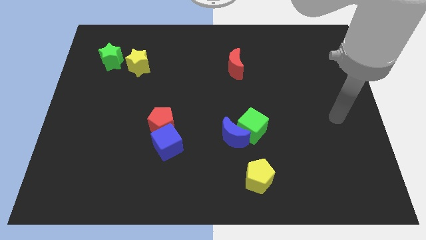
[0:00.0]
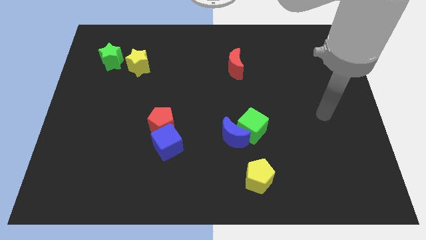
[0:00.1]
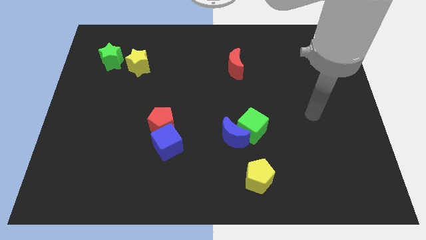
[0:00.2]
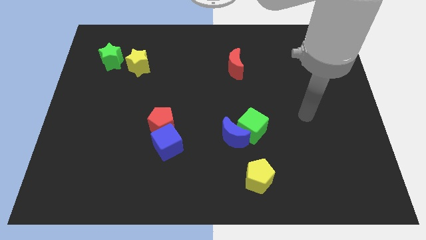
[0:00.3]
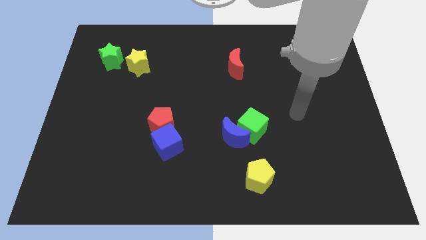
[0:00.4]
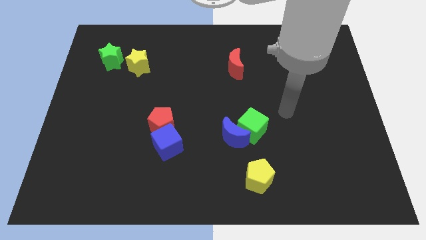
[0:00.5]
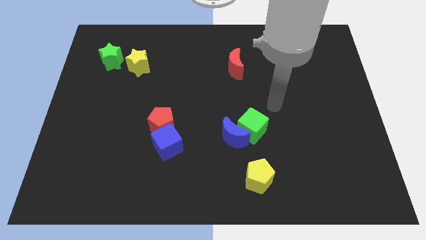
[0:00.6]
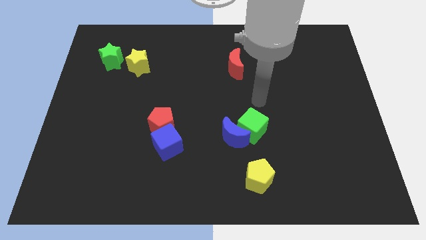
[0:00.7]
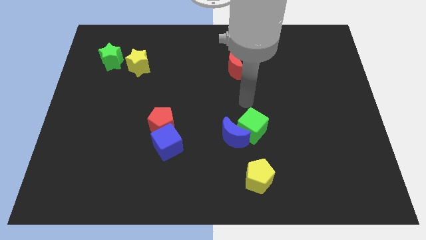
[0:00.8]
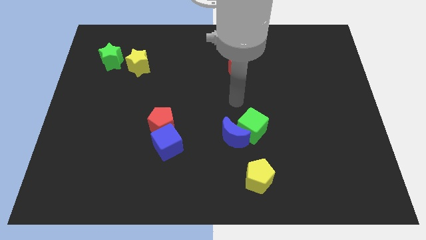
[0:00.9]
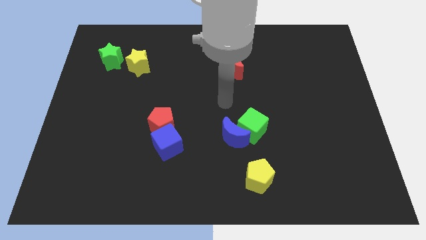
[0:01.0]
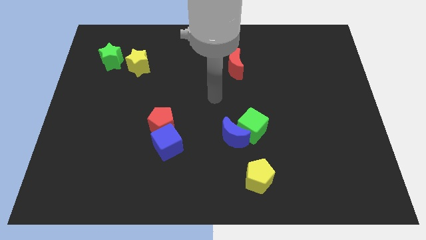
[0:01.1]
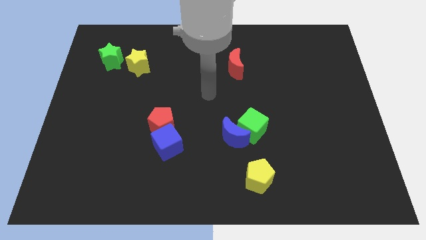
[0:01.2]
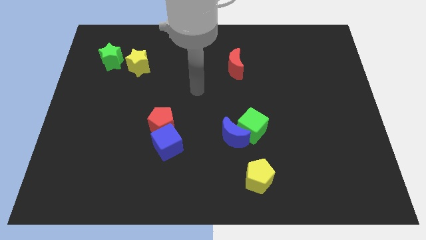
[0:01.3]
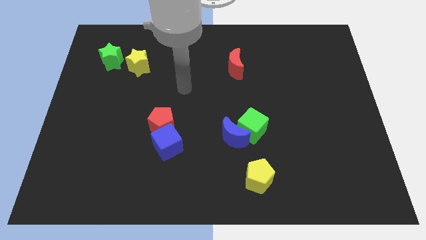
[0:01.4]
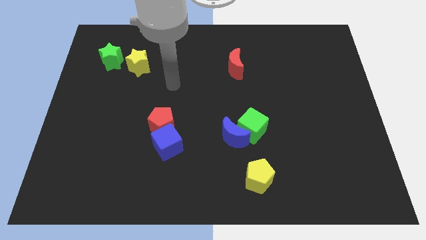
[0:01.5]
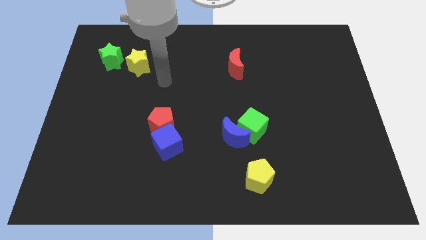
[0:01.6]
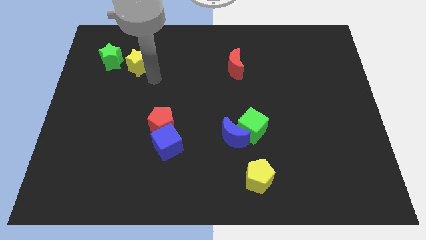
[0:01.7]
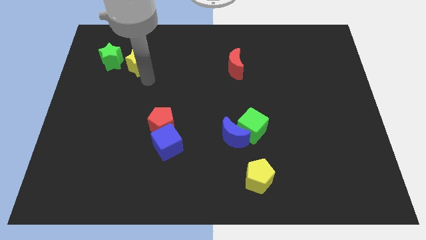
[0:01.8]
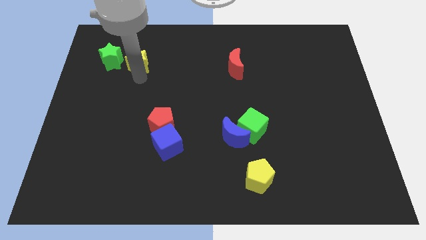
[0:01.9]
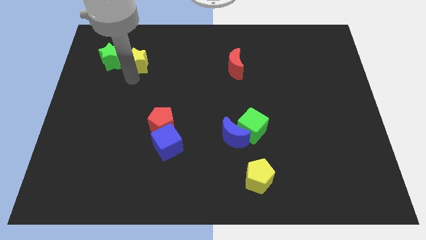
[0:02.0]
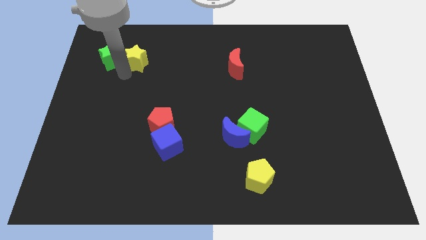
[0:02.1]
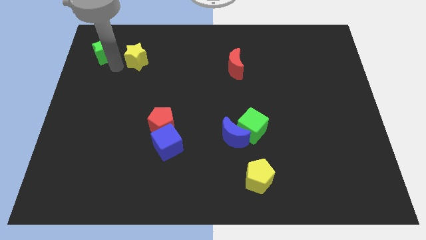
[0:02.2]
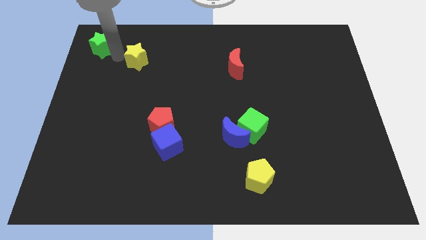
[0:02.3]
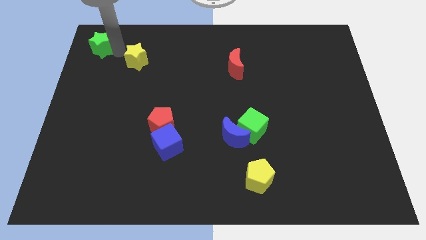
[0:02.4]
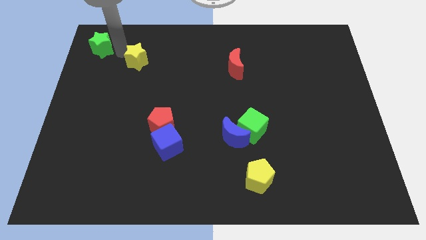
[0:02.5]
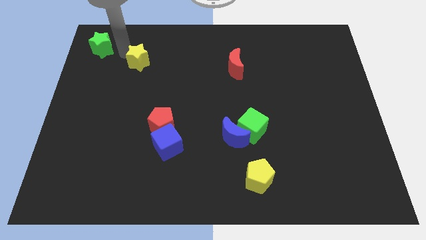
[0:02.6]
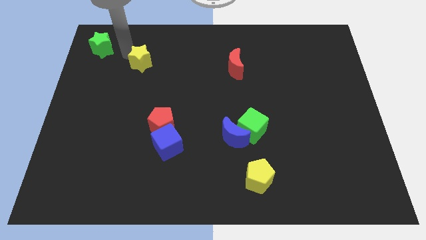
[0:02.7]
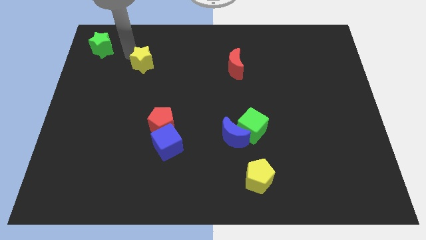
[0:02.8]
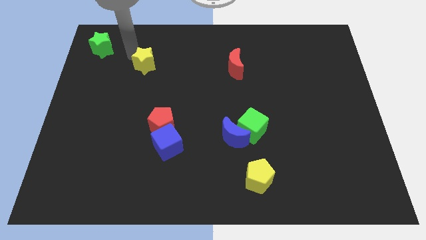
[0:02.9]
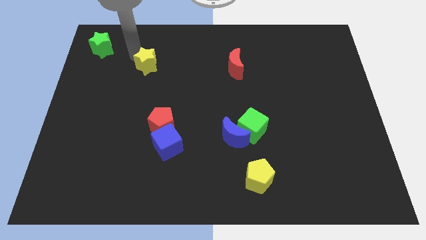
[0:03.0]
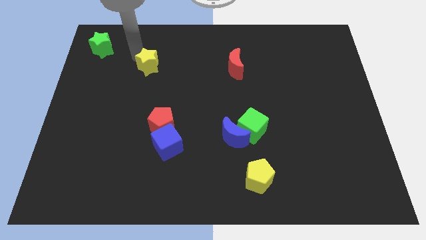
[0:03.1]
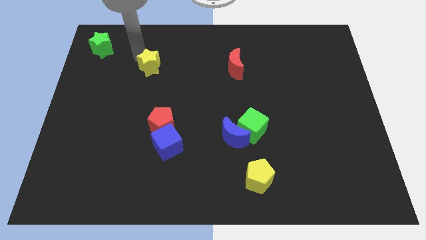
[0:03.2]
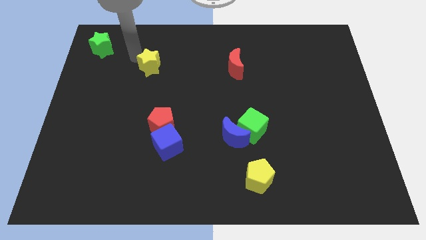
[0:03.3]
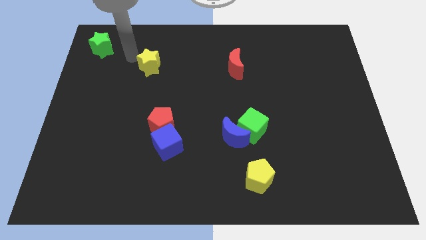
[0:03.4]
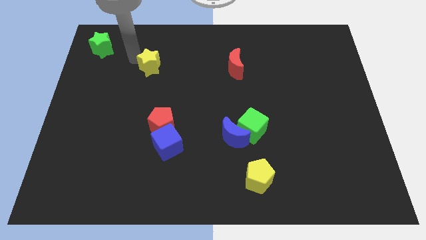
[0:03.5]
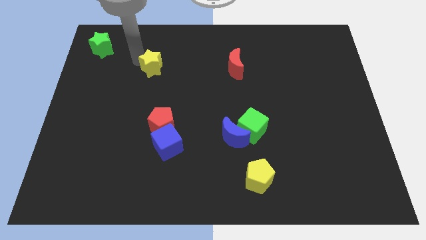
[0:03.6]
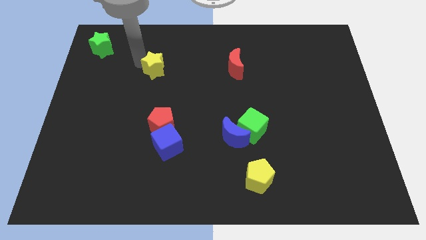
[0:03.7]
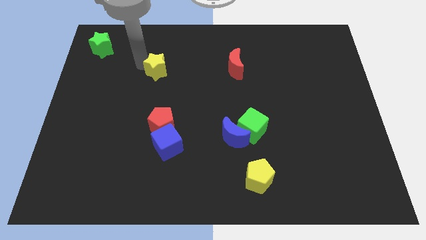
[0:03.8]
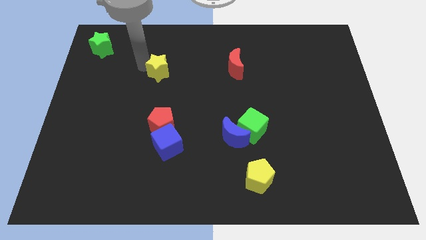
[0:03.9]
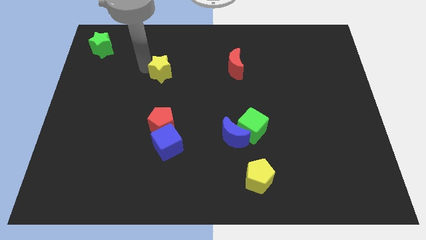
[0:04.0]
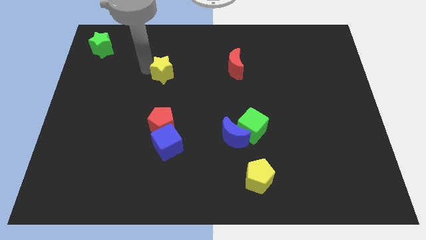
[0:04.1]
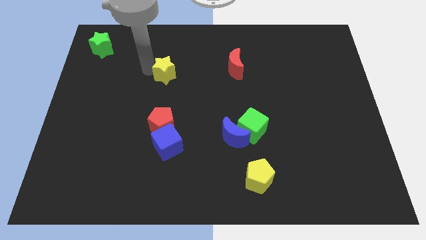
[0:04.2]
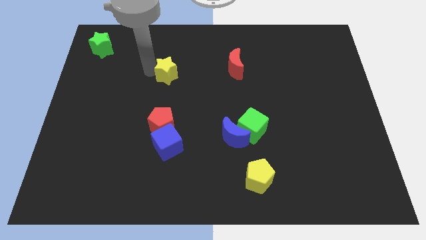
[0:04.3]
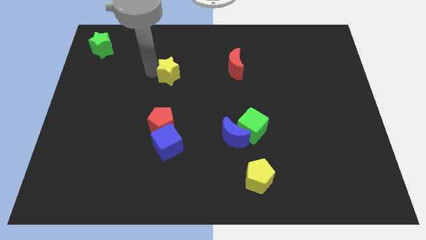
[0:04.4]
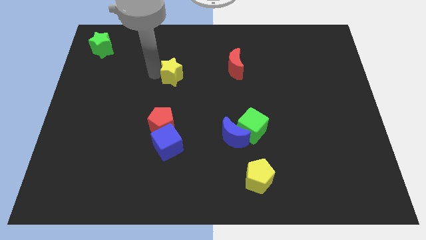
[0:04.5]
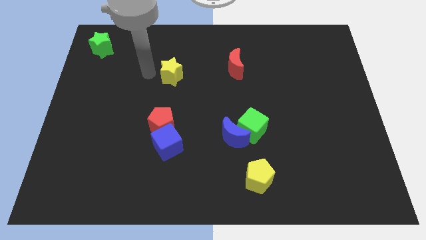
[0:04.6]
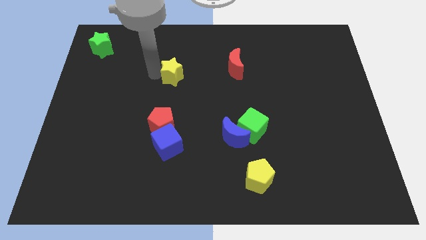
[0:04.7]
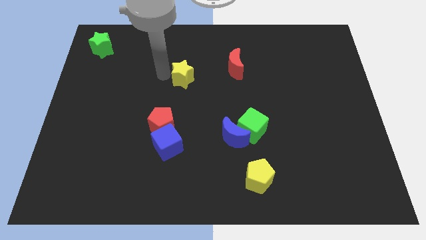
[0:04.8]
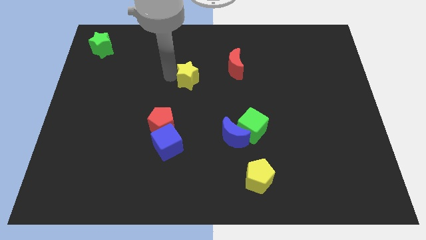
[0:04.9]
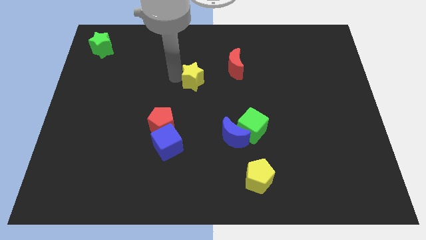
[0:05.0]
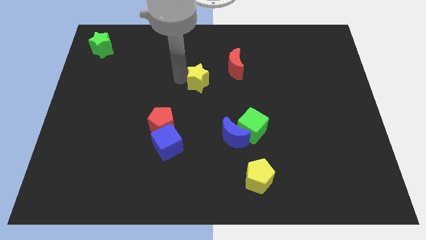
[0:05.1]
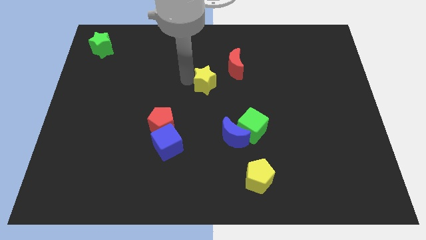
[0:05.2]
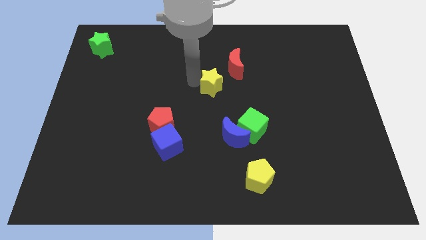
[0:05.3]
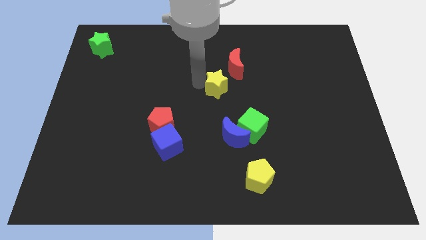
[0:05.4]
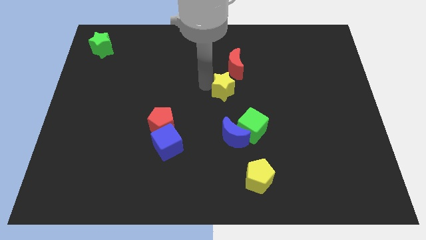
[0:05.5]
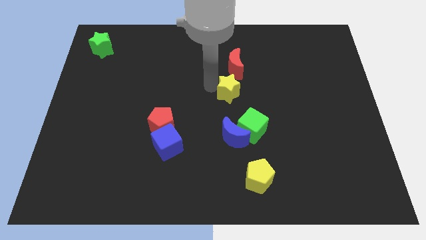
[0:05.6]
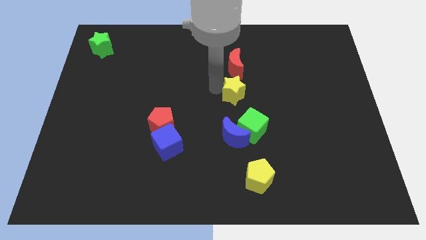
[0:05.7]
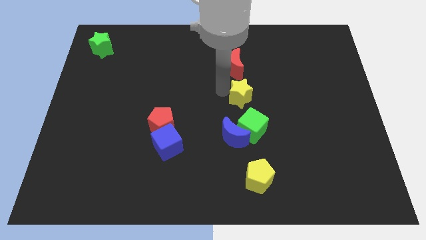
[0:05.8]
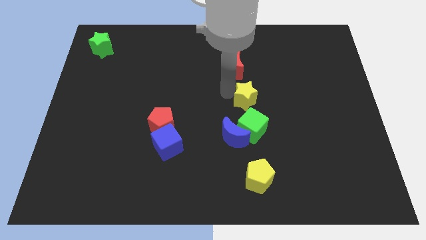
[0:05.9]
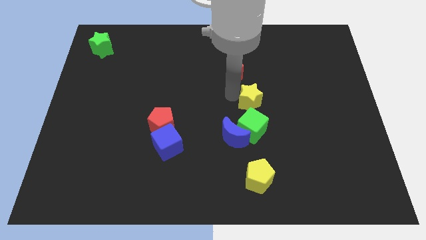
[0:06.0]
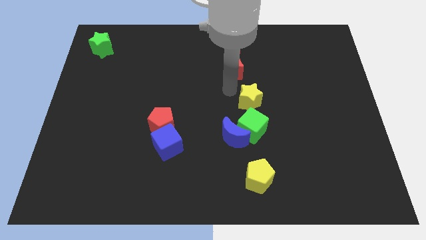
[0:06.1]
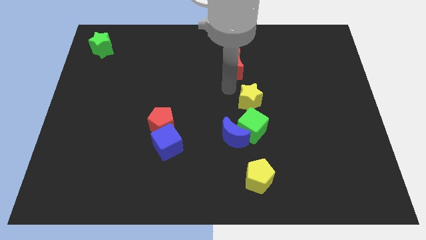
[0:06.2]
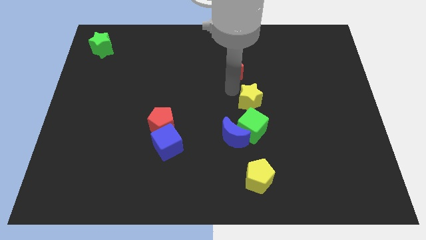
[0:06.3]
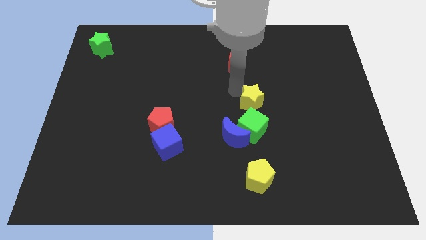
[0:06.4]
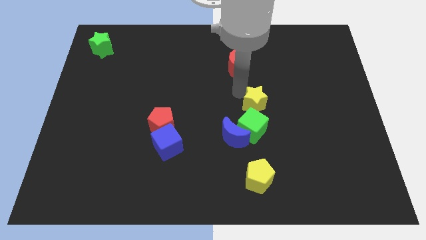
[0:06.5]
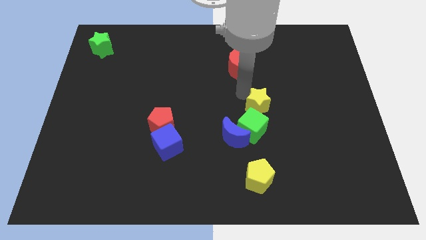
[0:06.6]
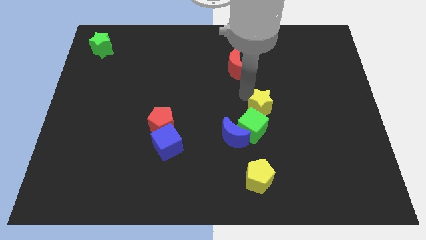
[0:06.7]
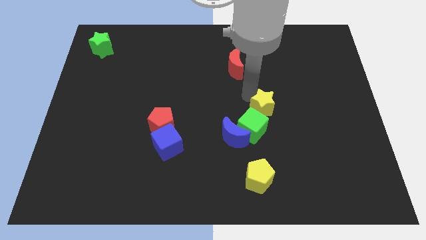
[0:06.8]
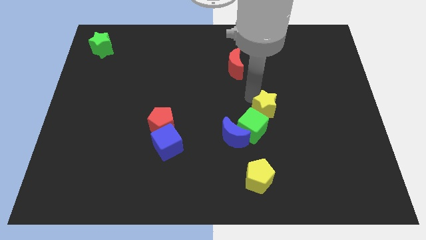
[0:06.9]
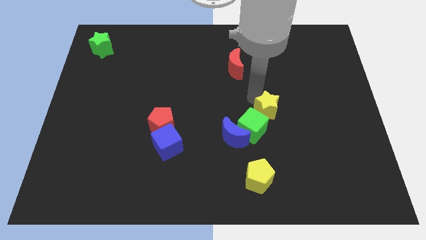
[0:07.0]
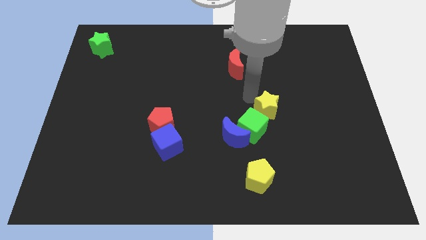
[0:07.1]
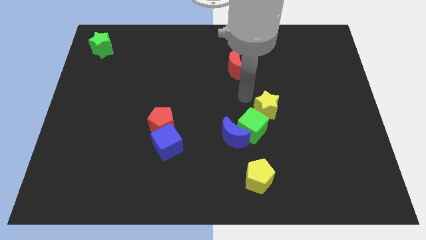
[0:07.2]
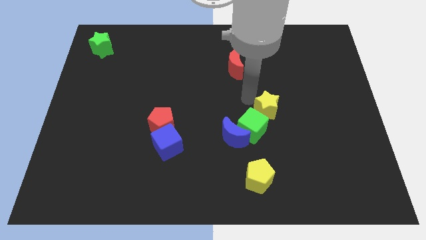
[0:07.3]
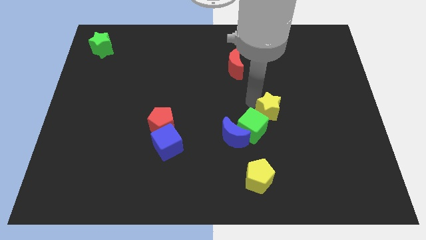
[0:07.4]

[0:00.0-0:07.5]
move the yellow star just right of the green cube
